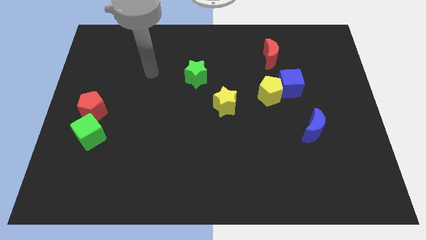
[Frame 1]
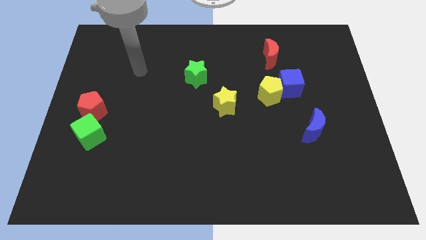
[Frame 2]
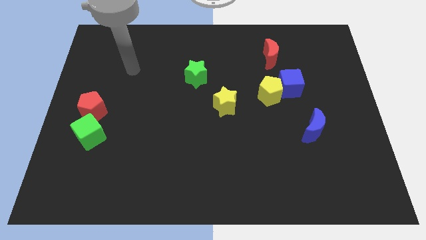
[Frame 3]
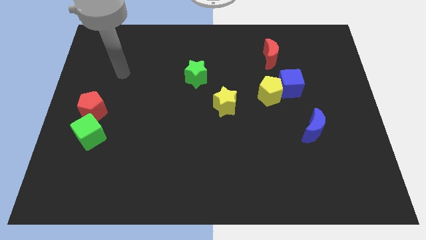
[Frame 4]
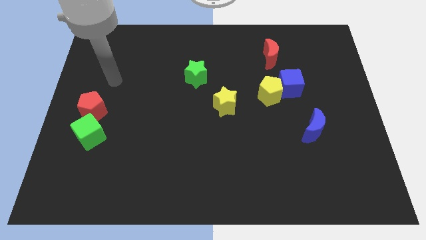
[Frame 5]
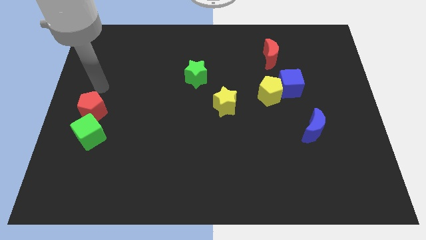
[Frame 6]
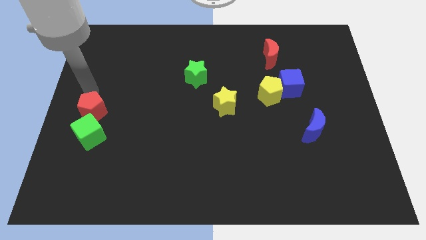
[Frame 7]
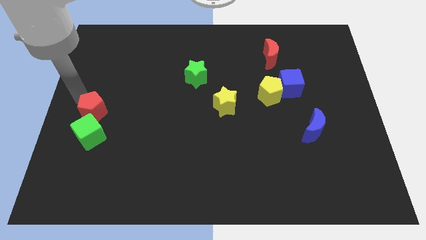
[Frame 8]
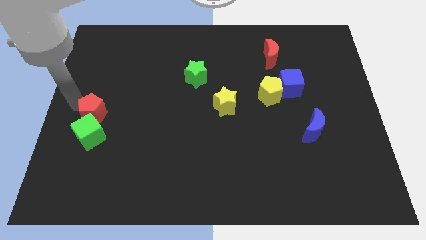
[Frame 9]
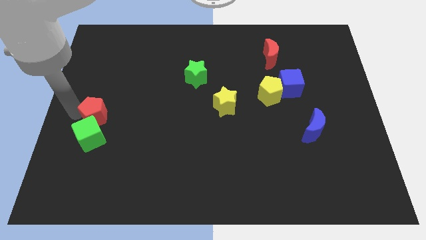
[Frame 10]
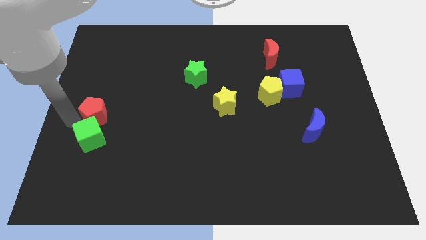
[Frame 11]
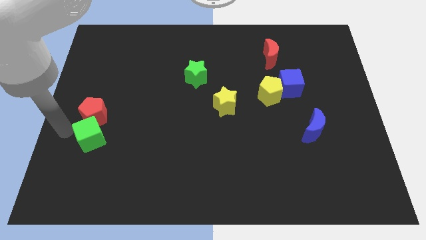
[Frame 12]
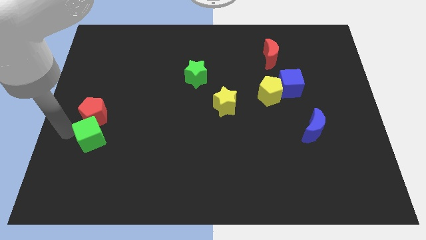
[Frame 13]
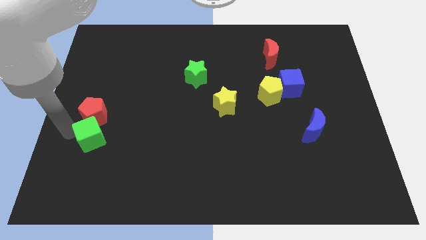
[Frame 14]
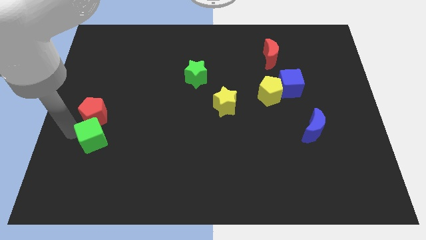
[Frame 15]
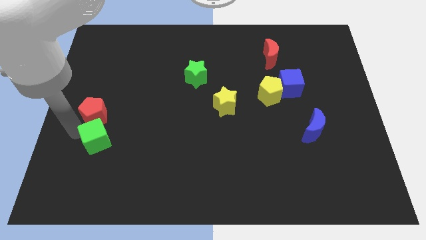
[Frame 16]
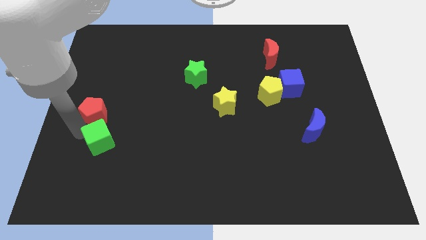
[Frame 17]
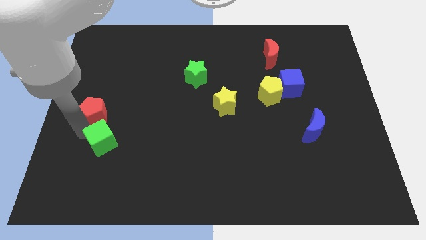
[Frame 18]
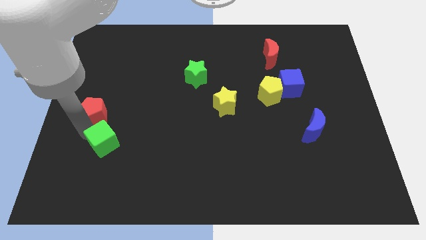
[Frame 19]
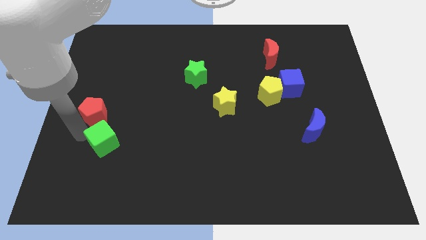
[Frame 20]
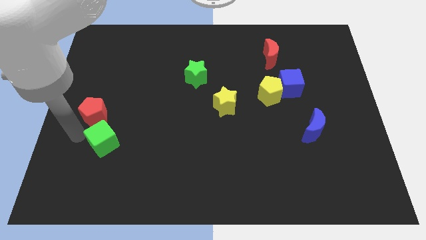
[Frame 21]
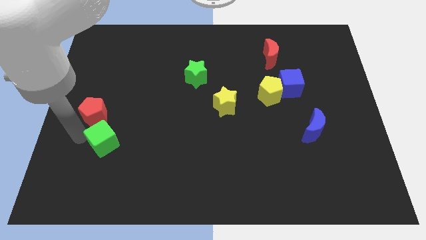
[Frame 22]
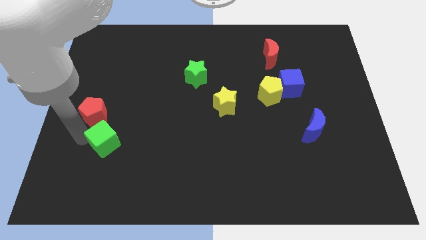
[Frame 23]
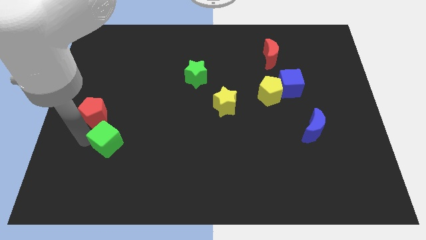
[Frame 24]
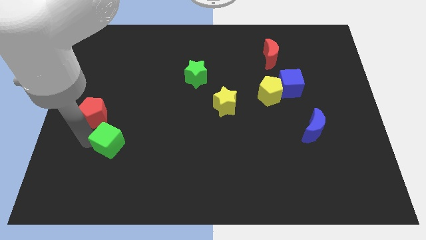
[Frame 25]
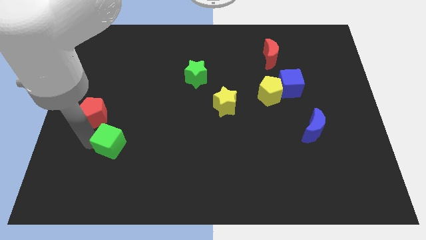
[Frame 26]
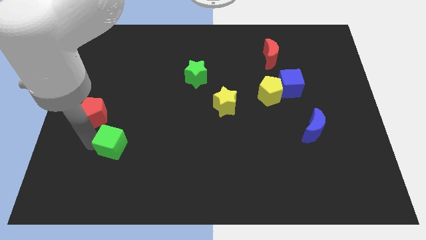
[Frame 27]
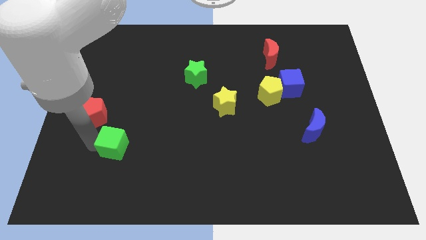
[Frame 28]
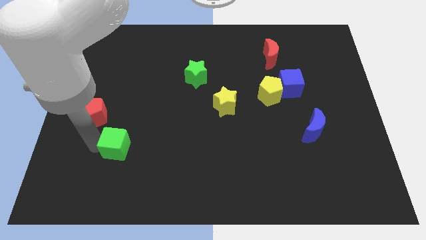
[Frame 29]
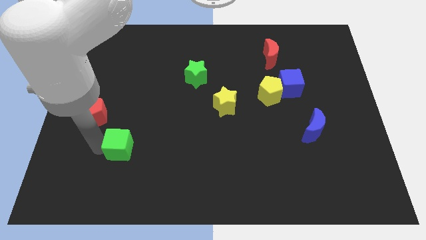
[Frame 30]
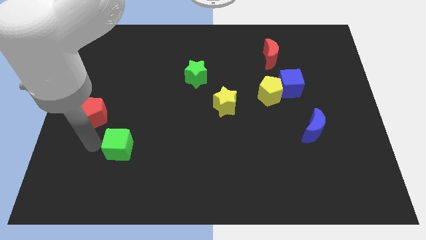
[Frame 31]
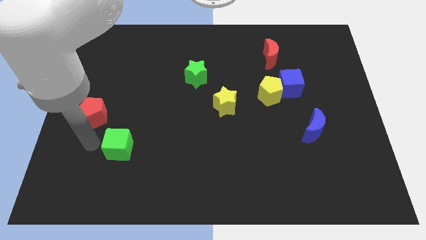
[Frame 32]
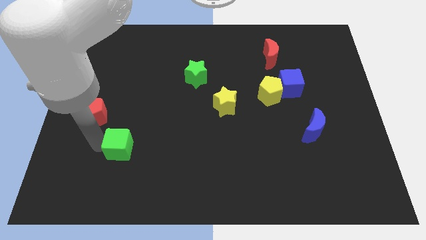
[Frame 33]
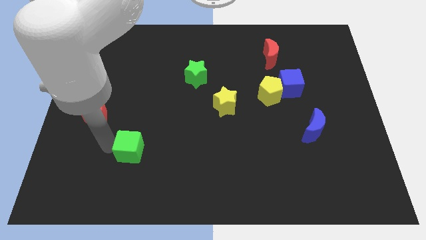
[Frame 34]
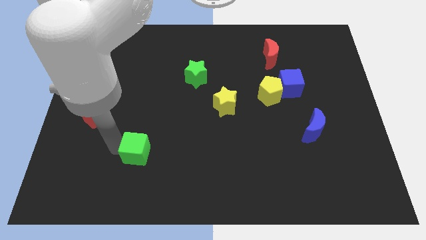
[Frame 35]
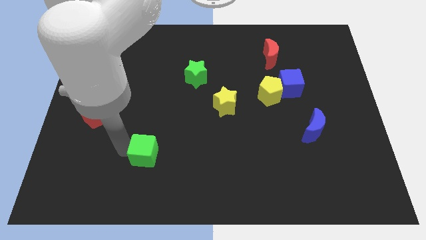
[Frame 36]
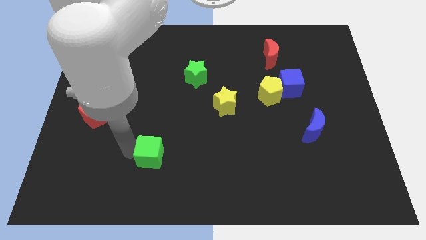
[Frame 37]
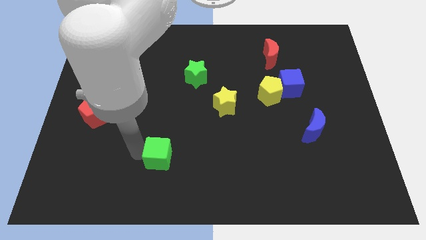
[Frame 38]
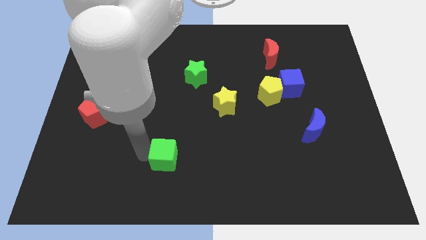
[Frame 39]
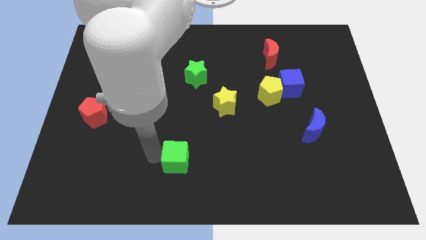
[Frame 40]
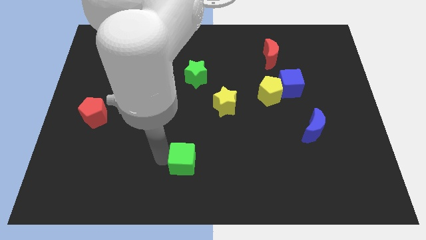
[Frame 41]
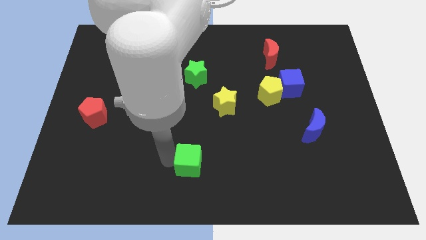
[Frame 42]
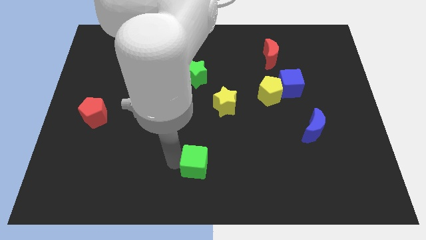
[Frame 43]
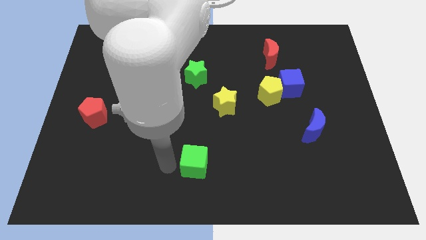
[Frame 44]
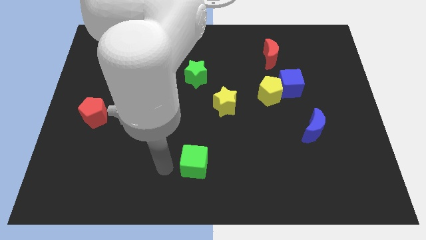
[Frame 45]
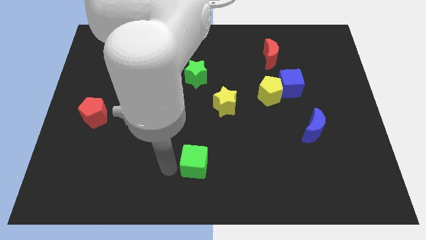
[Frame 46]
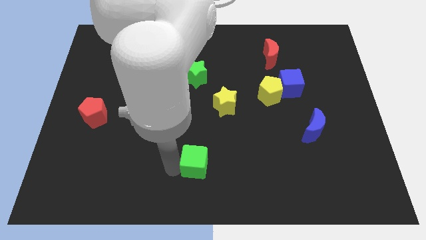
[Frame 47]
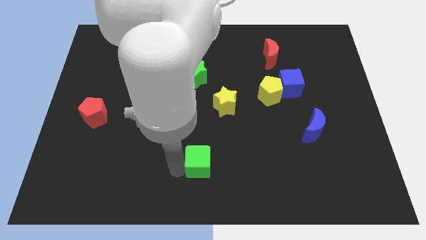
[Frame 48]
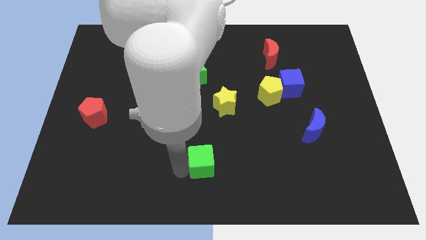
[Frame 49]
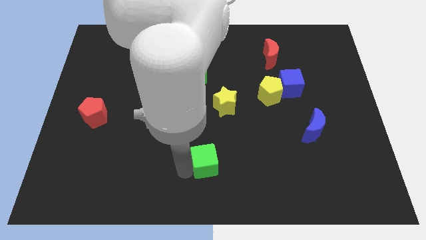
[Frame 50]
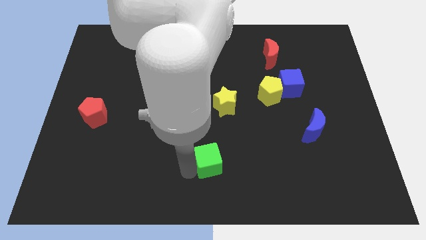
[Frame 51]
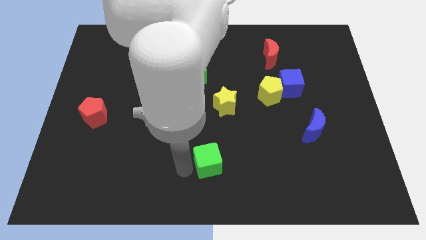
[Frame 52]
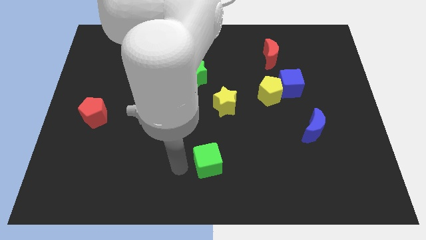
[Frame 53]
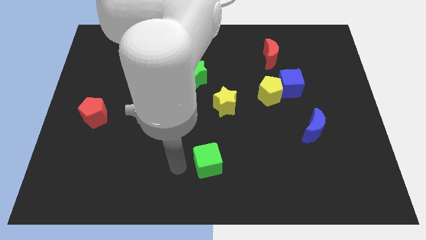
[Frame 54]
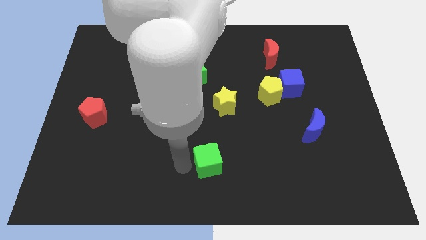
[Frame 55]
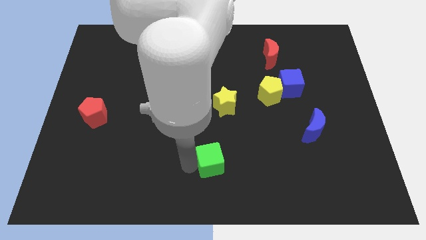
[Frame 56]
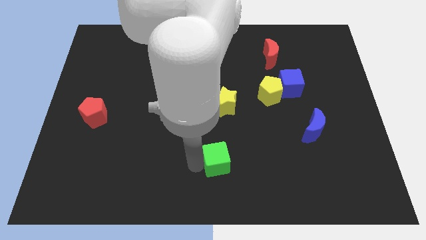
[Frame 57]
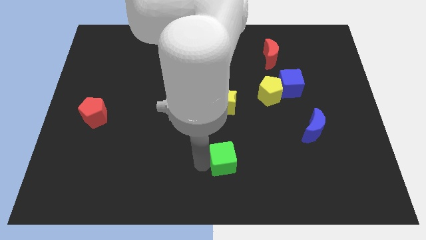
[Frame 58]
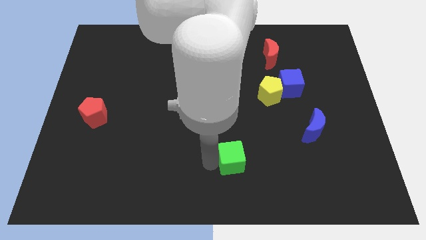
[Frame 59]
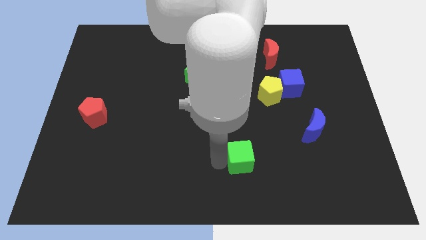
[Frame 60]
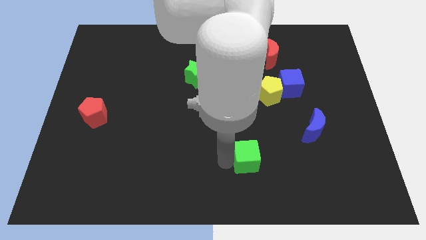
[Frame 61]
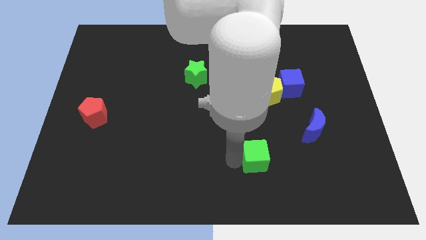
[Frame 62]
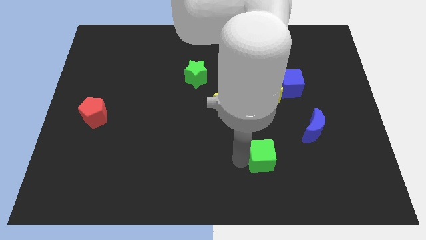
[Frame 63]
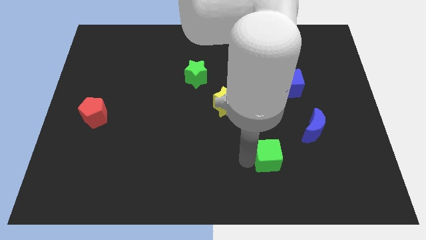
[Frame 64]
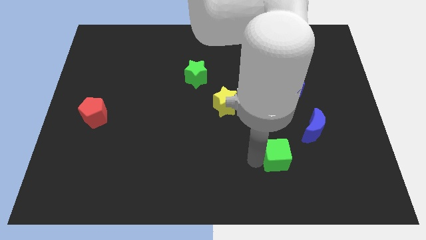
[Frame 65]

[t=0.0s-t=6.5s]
slide the green cube diagonally down and to the left of the blue moon

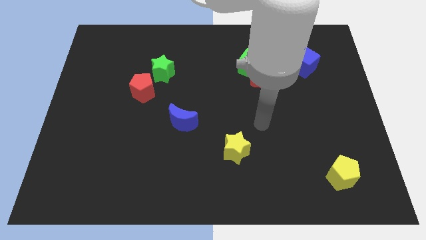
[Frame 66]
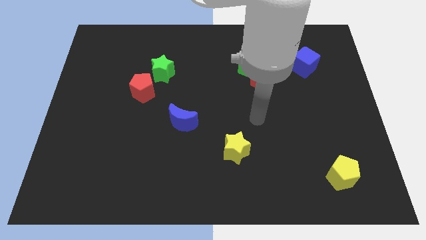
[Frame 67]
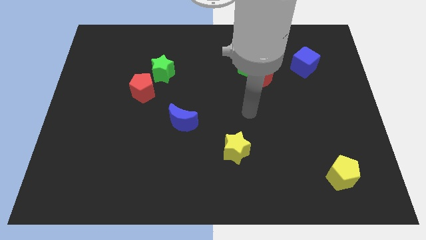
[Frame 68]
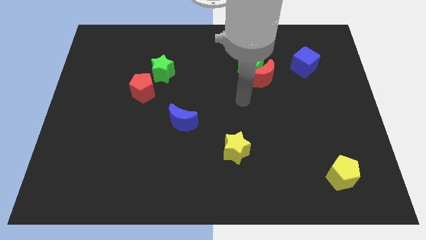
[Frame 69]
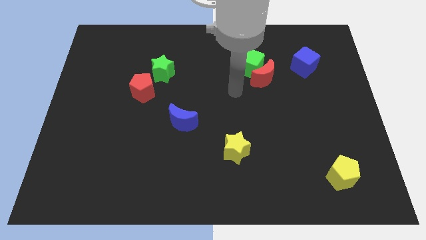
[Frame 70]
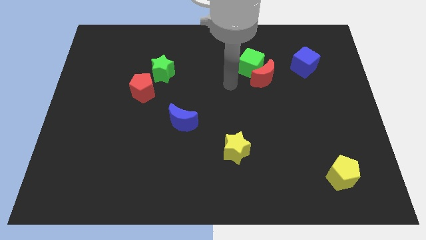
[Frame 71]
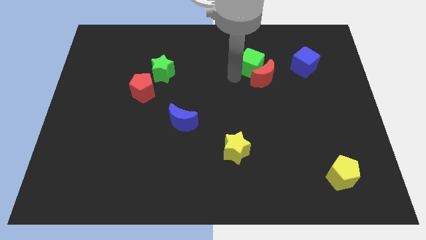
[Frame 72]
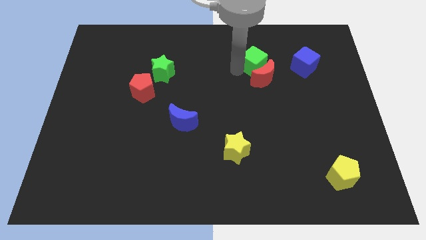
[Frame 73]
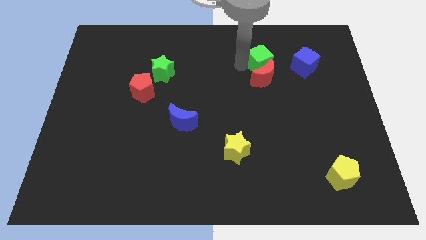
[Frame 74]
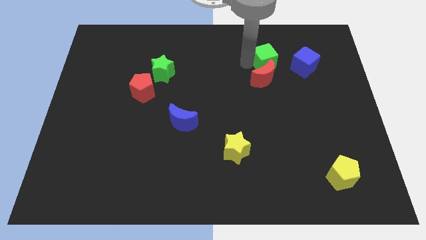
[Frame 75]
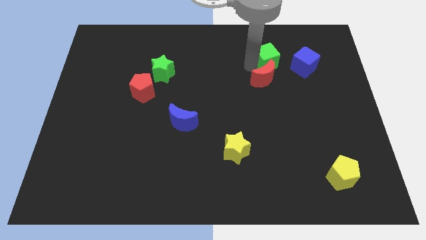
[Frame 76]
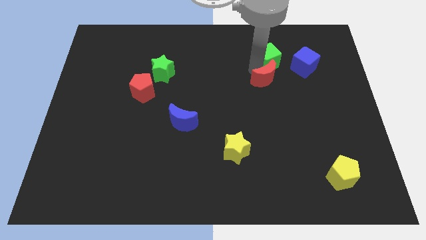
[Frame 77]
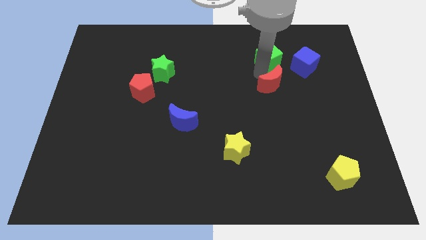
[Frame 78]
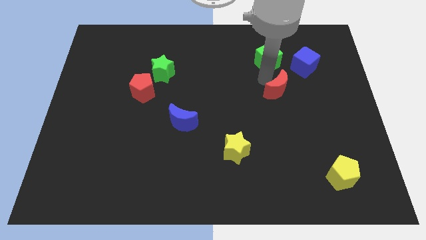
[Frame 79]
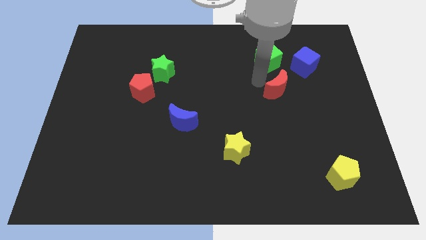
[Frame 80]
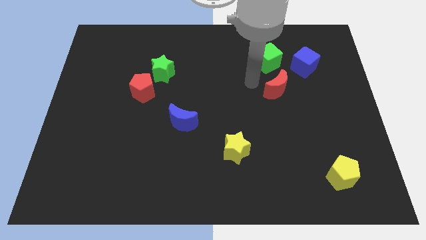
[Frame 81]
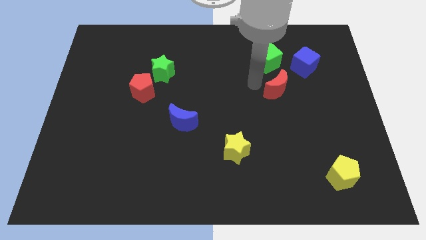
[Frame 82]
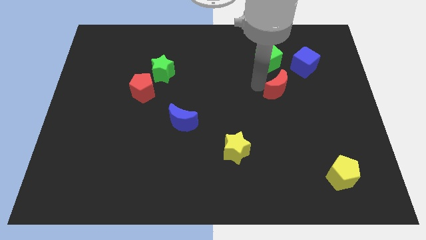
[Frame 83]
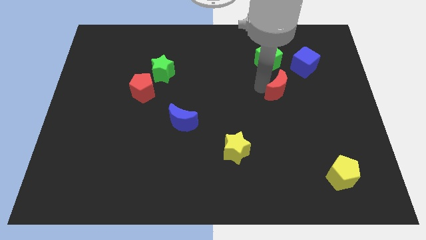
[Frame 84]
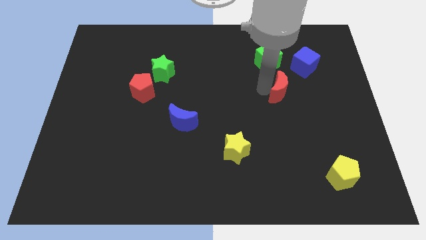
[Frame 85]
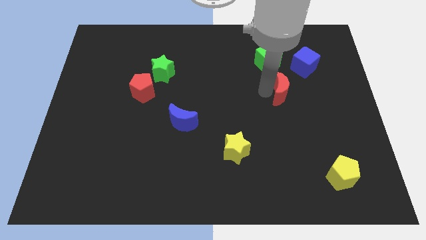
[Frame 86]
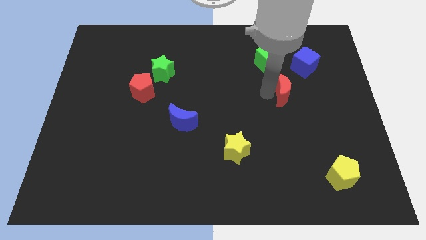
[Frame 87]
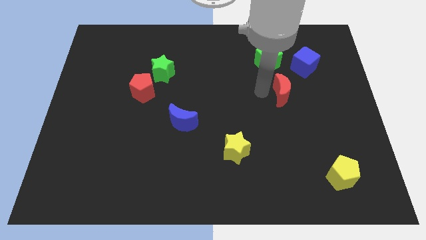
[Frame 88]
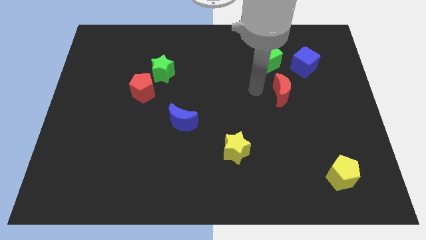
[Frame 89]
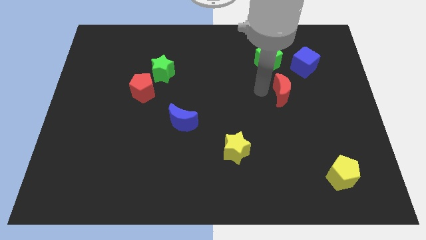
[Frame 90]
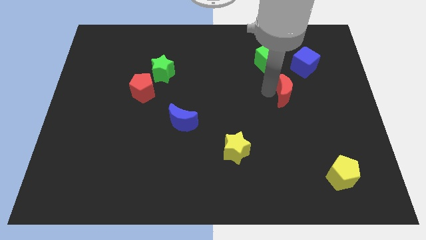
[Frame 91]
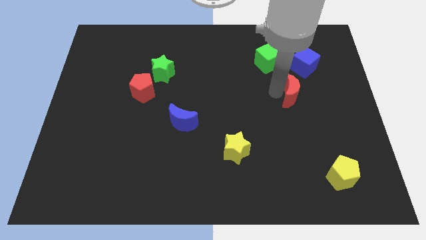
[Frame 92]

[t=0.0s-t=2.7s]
slide the red moon to the bottom side of the blue cube
